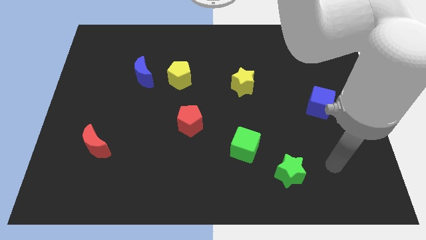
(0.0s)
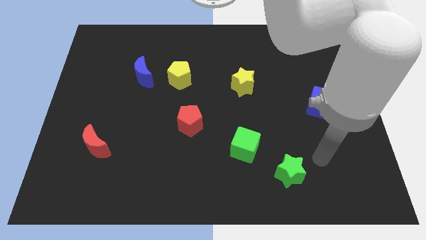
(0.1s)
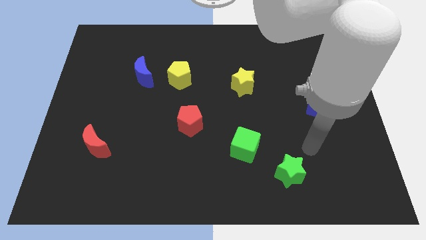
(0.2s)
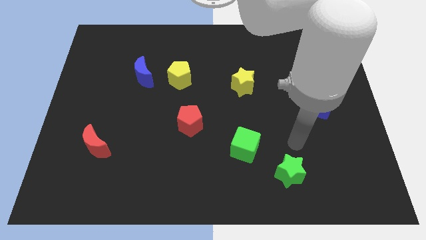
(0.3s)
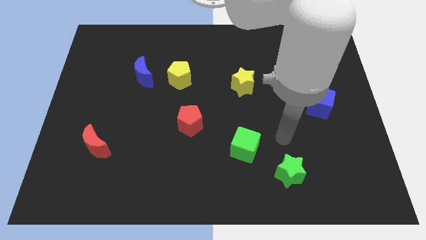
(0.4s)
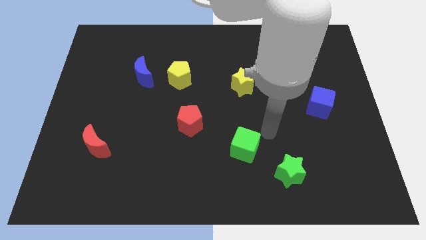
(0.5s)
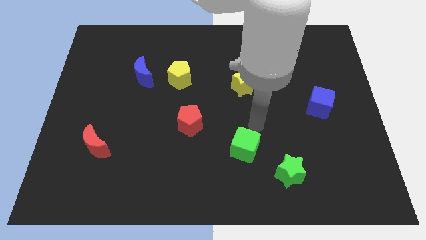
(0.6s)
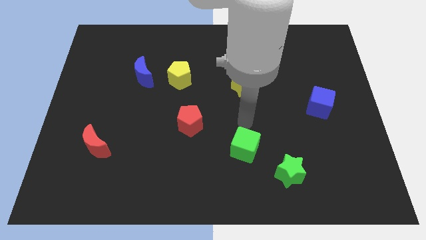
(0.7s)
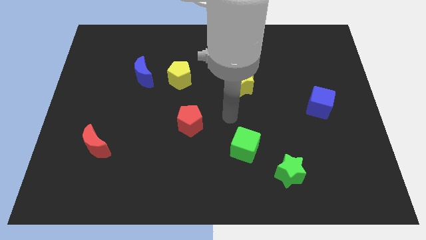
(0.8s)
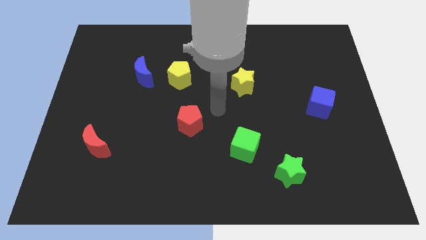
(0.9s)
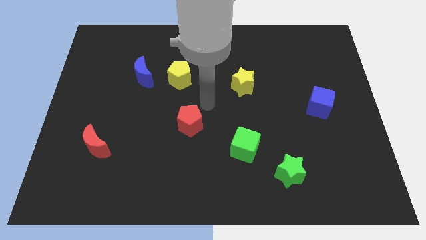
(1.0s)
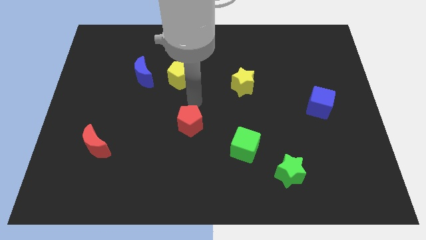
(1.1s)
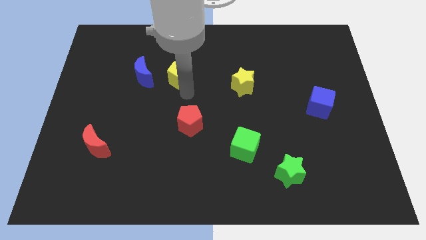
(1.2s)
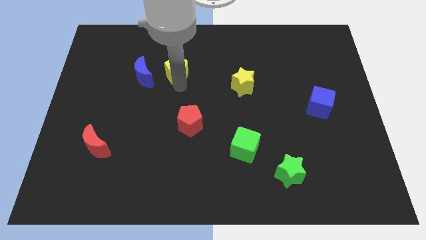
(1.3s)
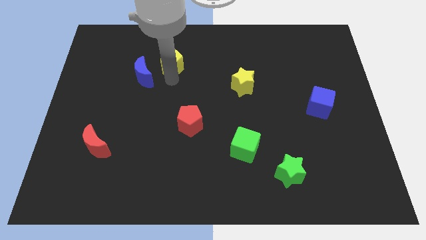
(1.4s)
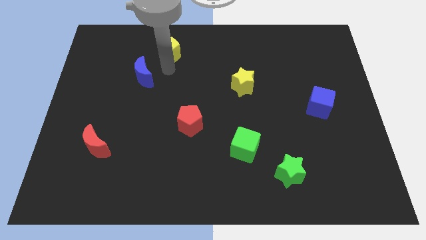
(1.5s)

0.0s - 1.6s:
move the blue moon away from the yellow pentagon

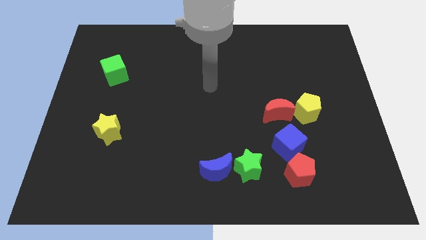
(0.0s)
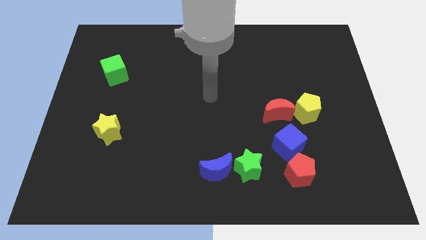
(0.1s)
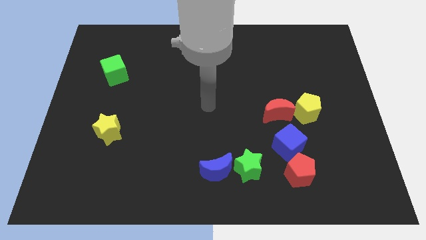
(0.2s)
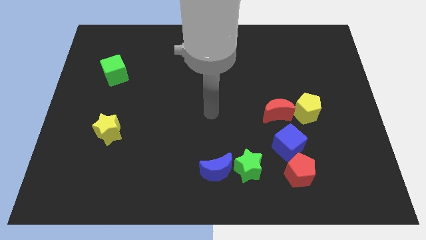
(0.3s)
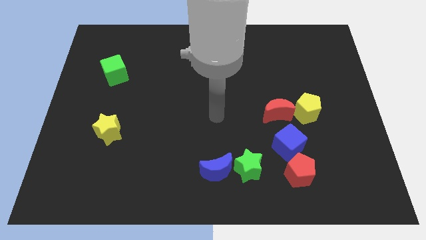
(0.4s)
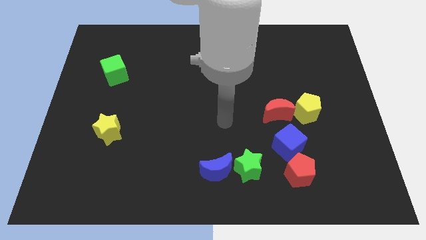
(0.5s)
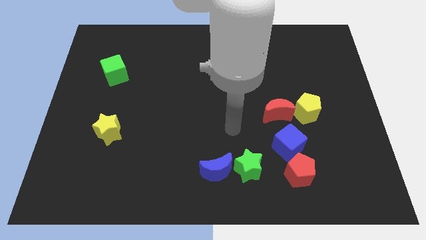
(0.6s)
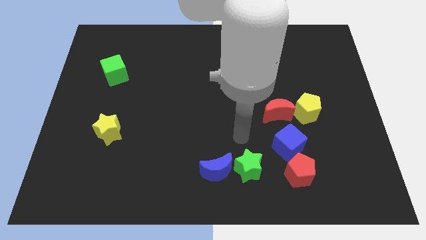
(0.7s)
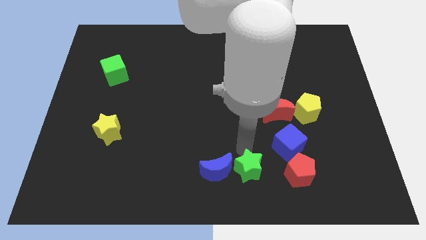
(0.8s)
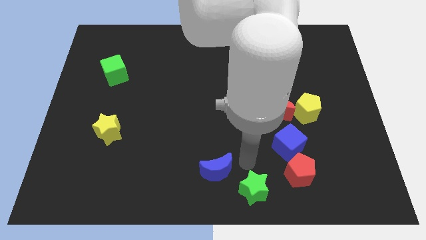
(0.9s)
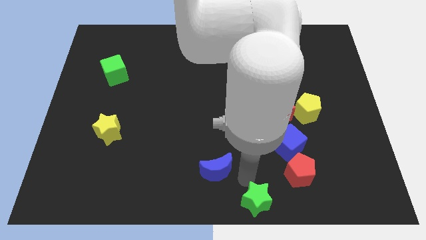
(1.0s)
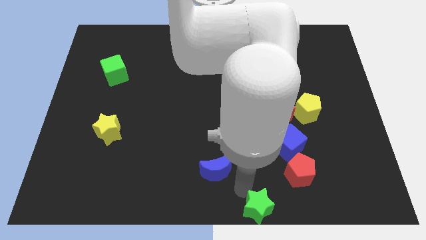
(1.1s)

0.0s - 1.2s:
pull the blue moon apart from the green star

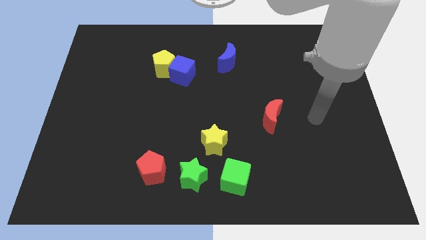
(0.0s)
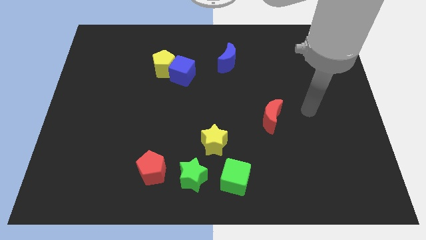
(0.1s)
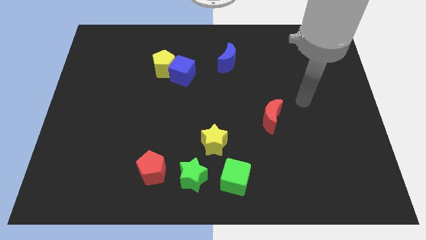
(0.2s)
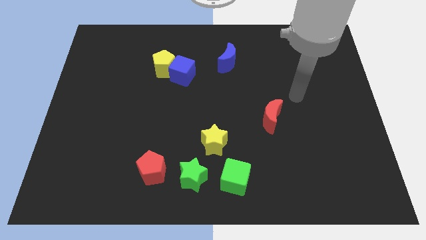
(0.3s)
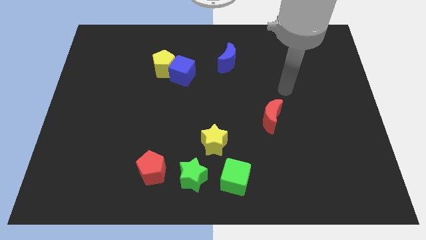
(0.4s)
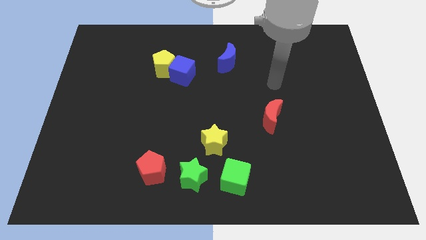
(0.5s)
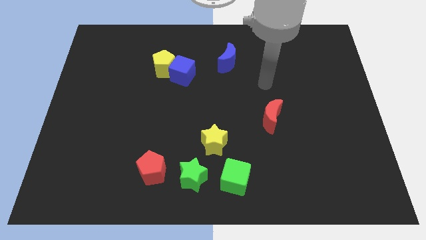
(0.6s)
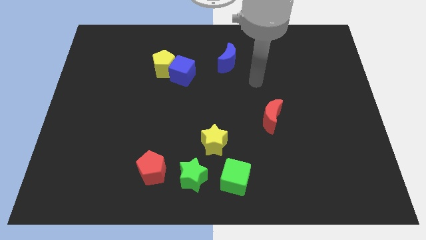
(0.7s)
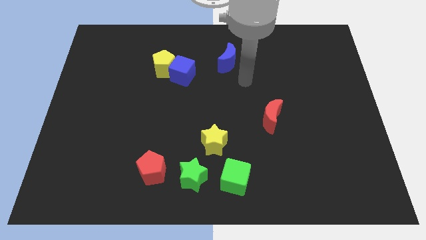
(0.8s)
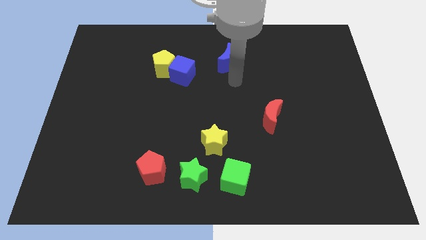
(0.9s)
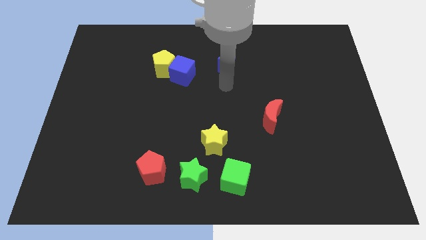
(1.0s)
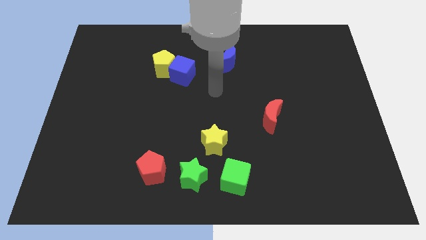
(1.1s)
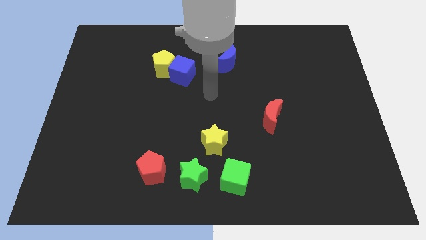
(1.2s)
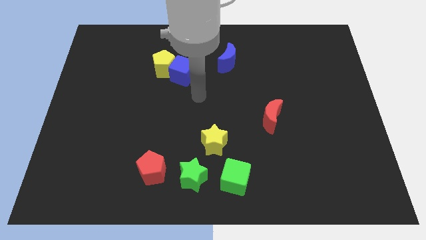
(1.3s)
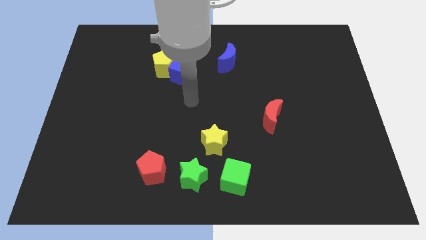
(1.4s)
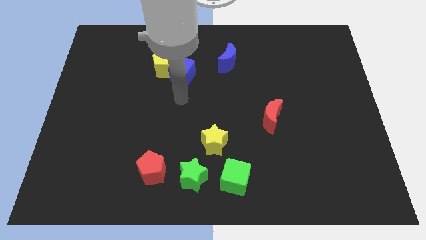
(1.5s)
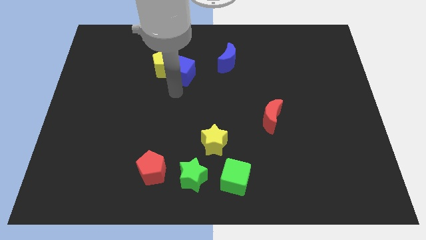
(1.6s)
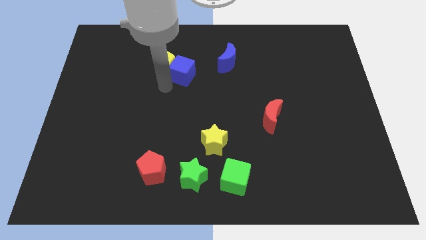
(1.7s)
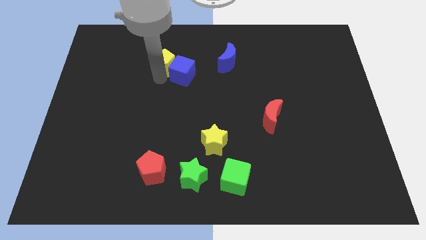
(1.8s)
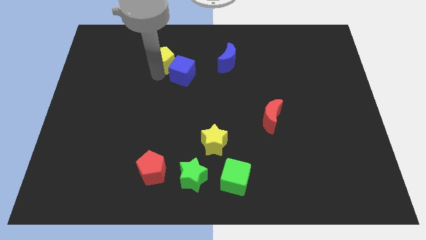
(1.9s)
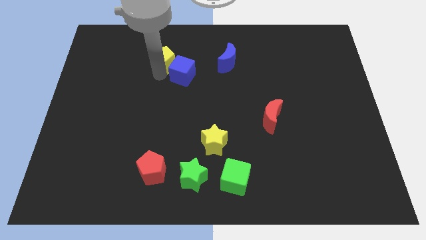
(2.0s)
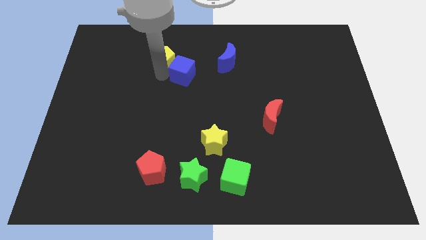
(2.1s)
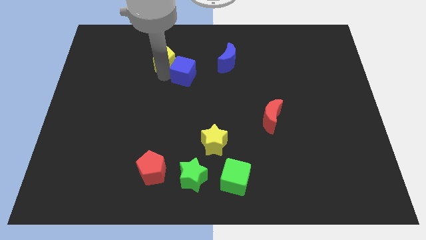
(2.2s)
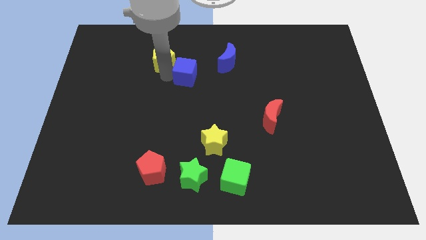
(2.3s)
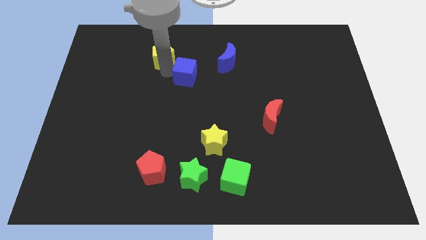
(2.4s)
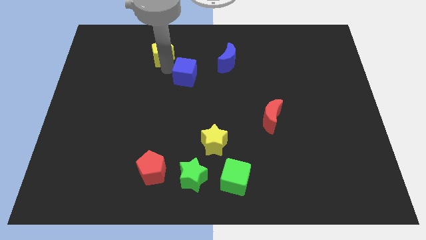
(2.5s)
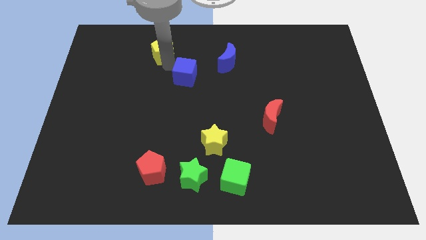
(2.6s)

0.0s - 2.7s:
move the blue cube away from the yellow pentagon

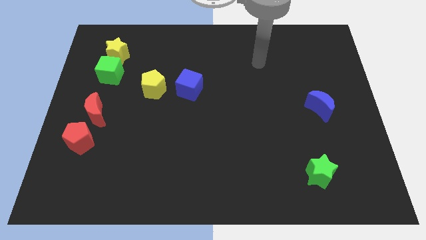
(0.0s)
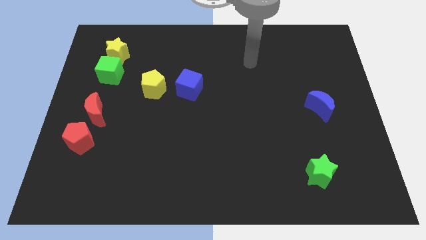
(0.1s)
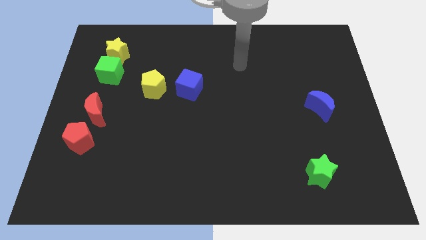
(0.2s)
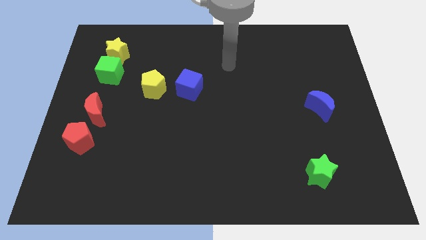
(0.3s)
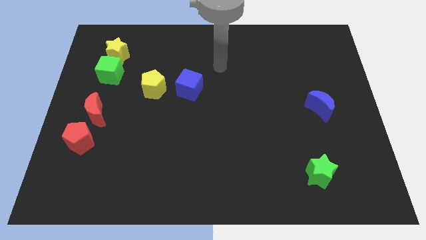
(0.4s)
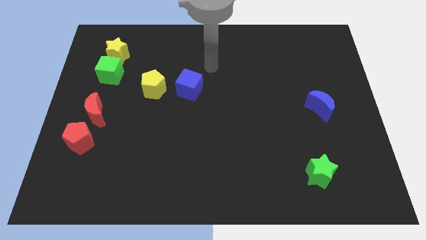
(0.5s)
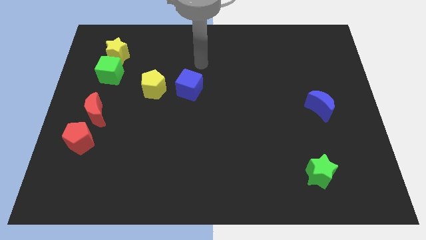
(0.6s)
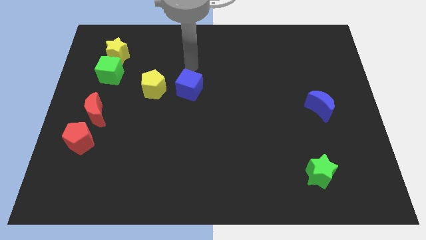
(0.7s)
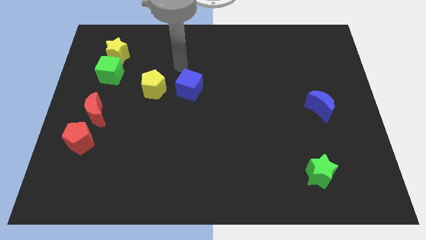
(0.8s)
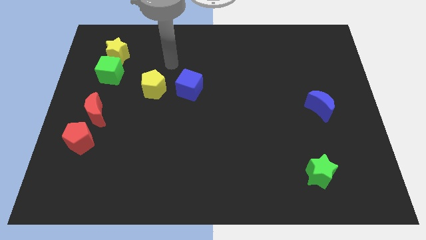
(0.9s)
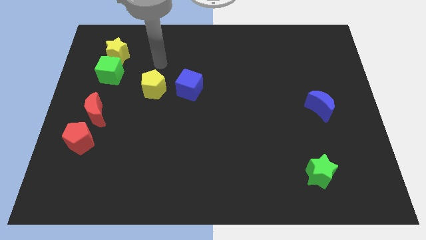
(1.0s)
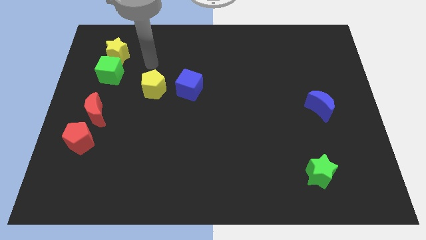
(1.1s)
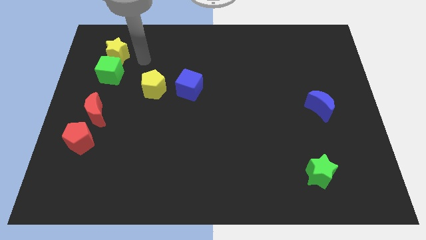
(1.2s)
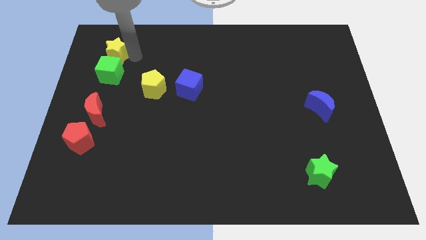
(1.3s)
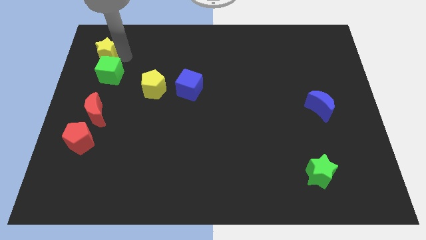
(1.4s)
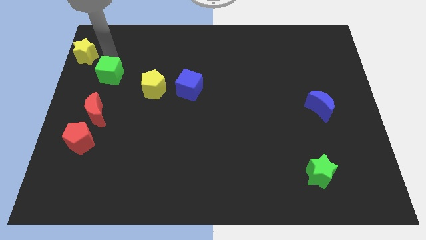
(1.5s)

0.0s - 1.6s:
pull the green cube apart from the yellow star

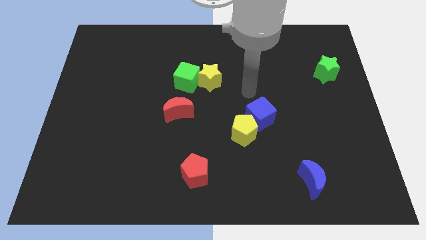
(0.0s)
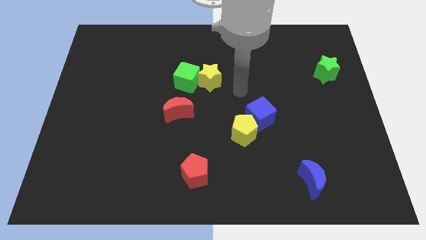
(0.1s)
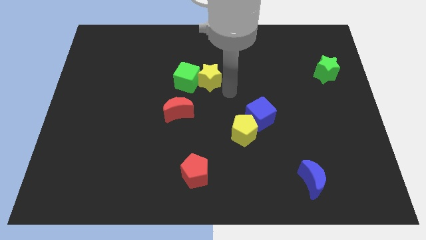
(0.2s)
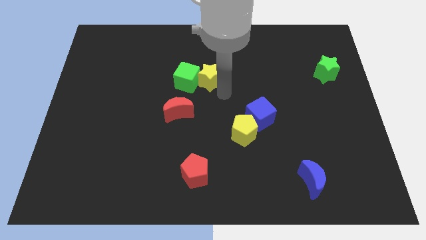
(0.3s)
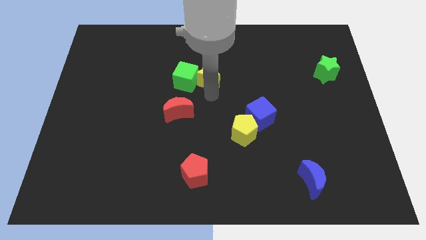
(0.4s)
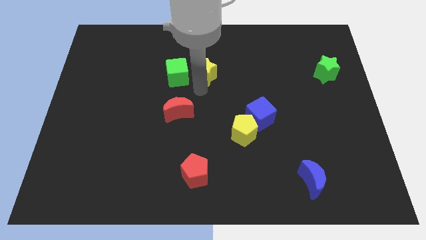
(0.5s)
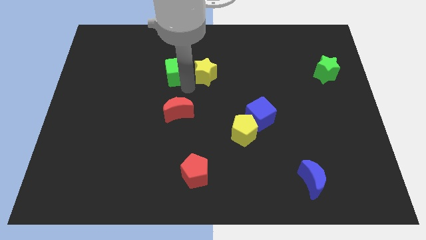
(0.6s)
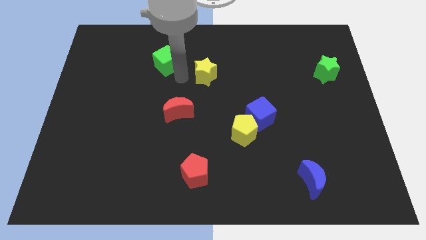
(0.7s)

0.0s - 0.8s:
pull the yellow star apart from the green cube

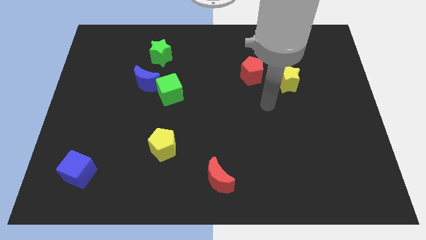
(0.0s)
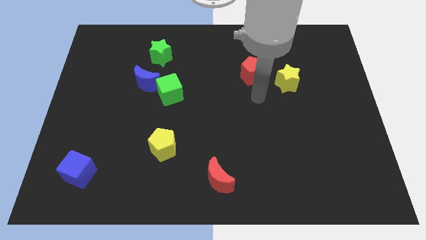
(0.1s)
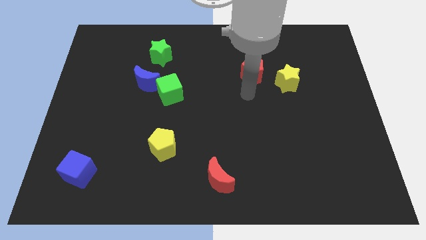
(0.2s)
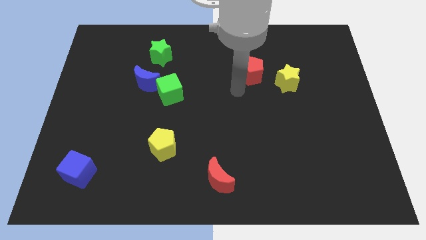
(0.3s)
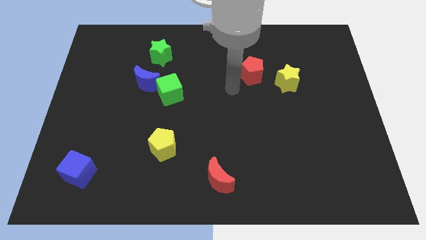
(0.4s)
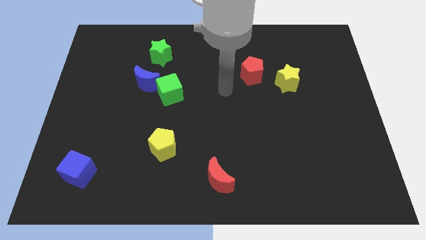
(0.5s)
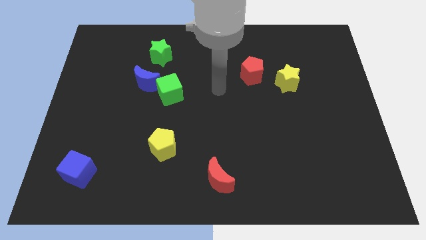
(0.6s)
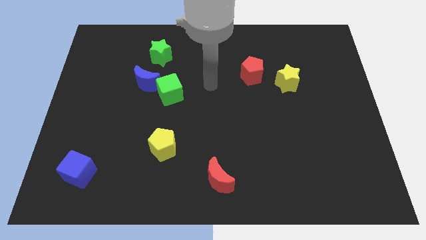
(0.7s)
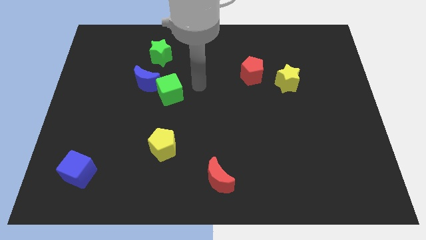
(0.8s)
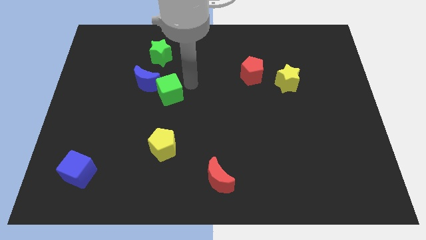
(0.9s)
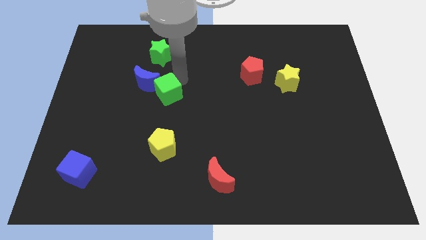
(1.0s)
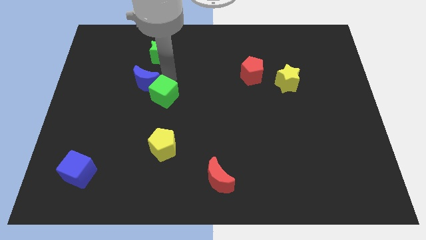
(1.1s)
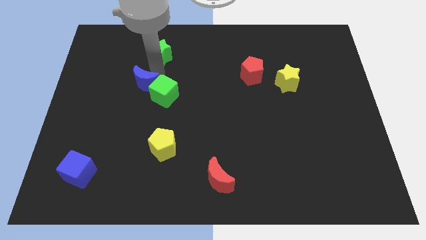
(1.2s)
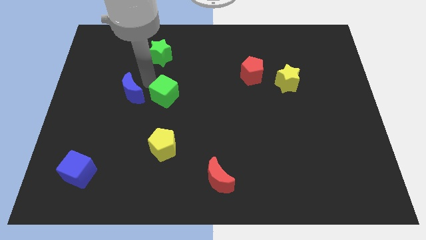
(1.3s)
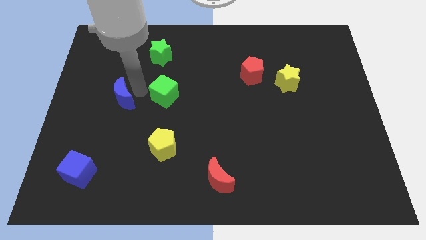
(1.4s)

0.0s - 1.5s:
separate the green cube from the blue moon
